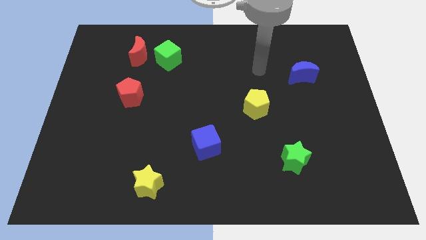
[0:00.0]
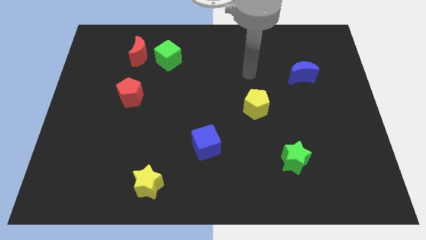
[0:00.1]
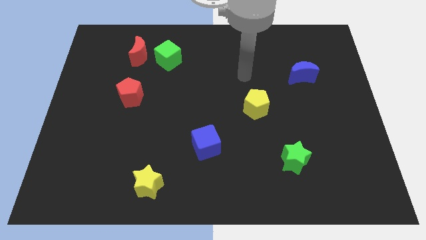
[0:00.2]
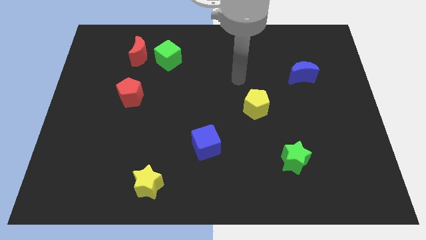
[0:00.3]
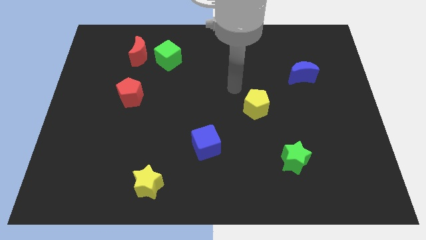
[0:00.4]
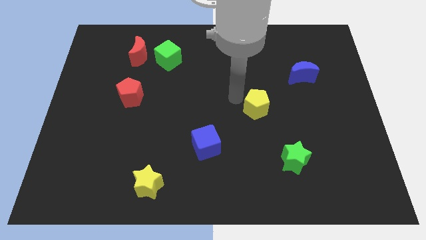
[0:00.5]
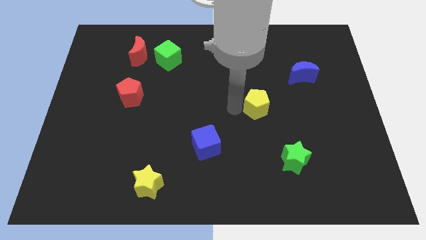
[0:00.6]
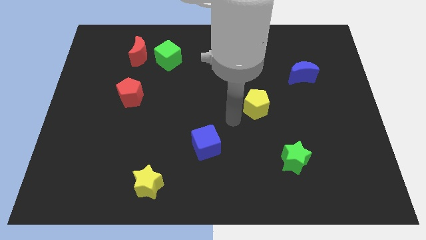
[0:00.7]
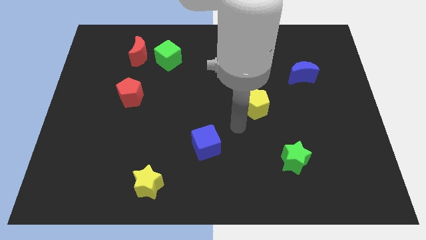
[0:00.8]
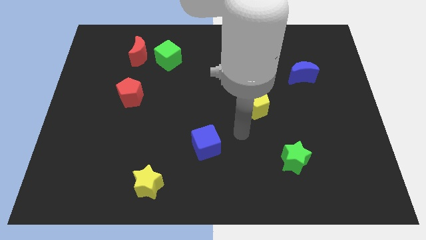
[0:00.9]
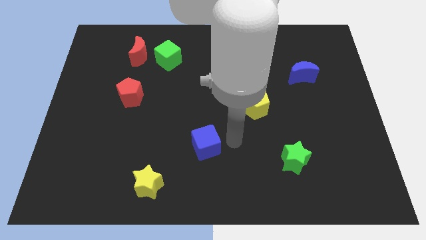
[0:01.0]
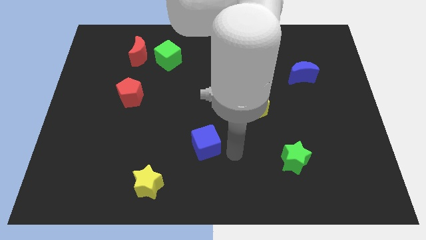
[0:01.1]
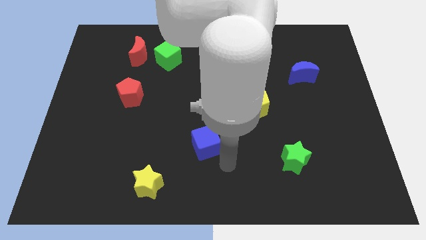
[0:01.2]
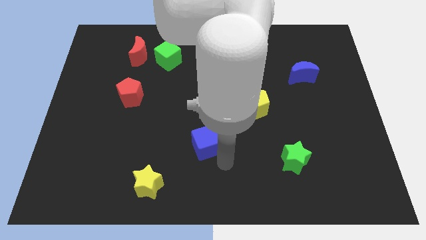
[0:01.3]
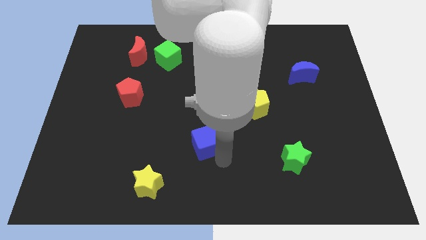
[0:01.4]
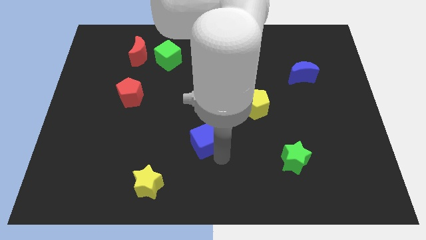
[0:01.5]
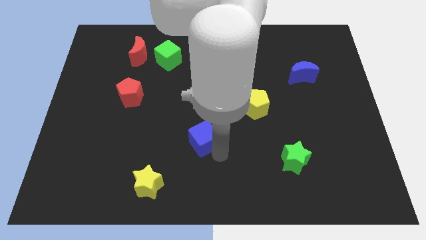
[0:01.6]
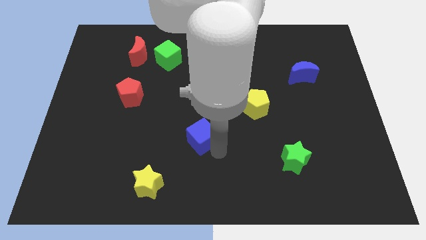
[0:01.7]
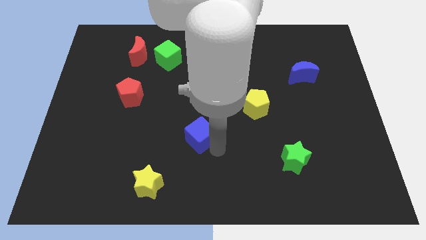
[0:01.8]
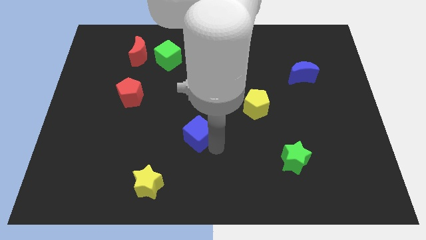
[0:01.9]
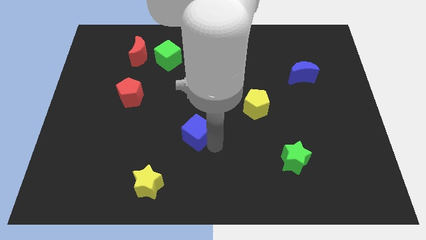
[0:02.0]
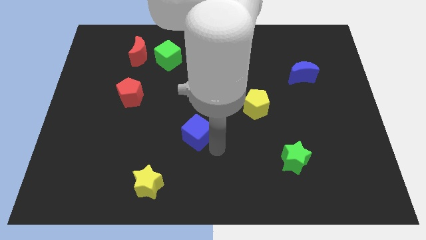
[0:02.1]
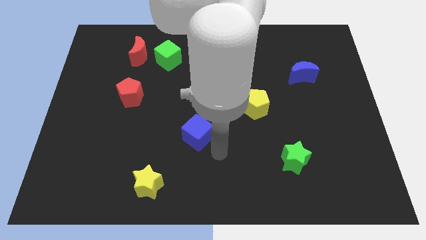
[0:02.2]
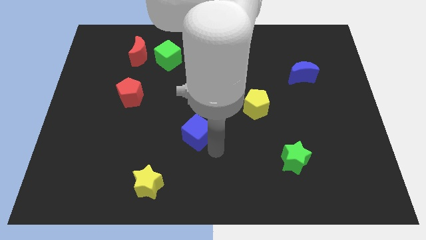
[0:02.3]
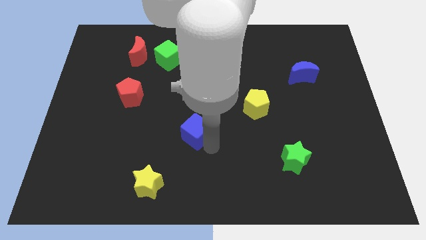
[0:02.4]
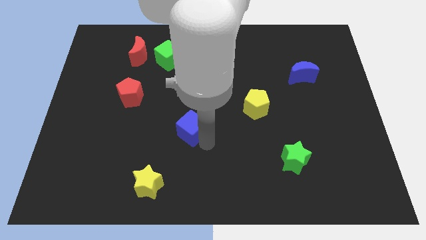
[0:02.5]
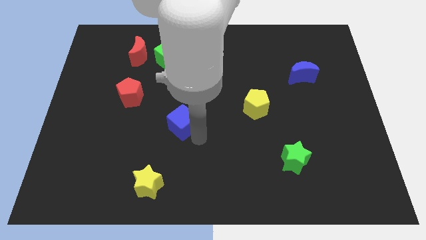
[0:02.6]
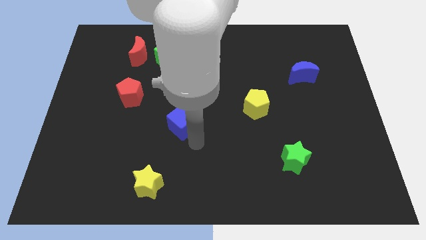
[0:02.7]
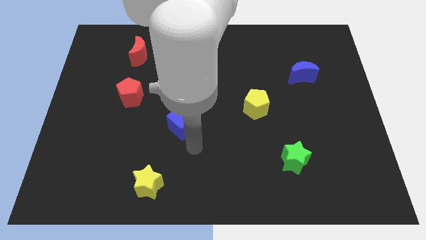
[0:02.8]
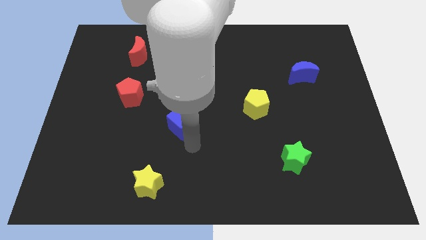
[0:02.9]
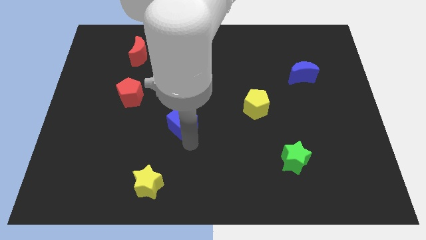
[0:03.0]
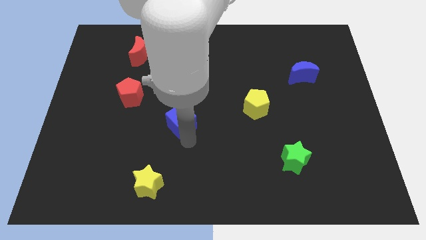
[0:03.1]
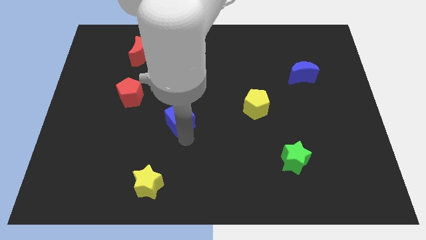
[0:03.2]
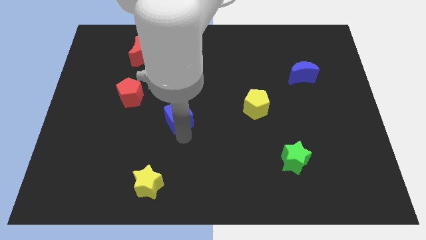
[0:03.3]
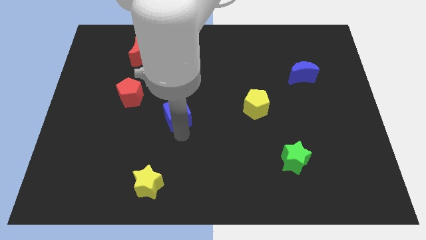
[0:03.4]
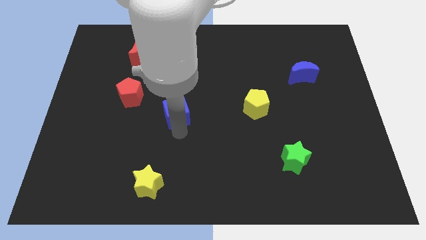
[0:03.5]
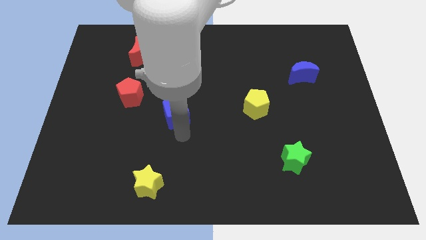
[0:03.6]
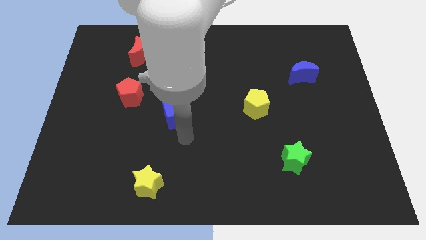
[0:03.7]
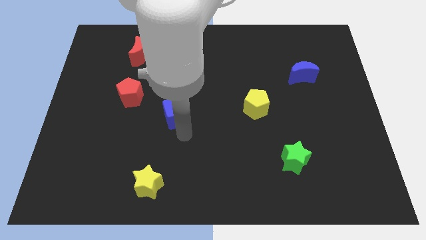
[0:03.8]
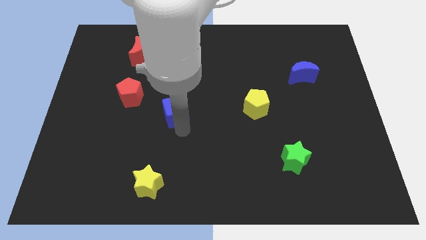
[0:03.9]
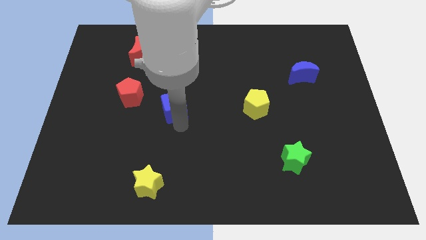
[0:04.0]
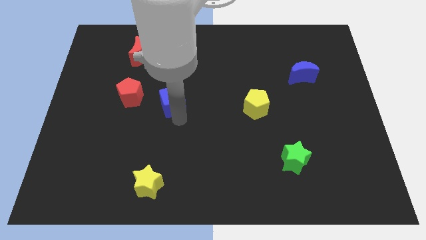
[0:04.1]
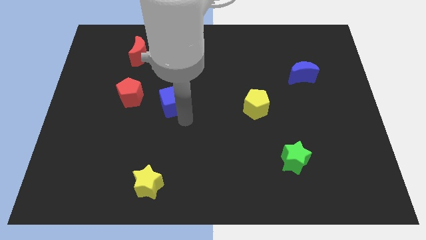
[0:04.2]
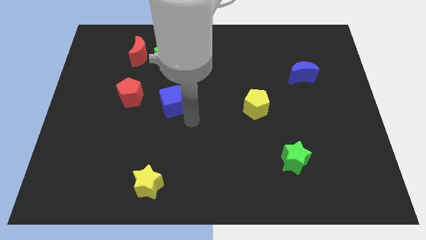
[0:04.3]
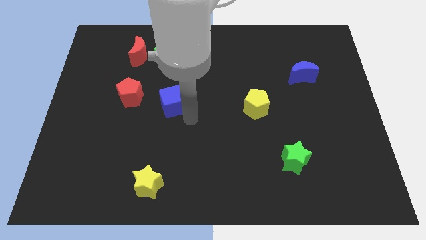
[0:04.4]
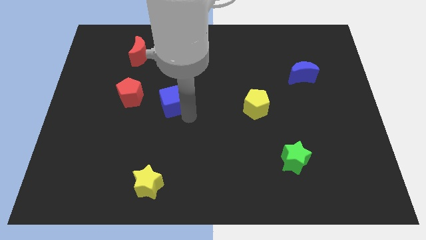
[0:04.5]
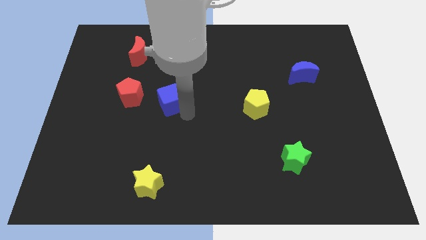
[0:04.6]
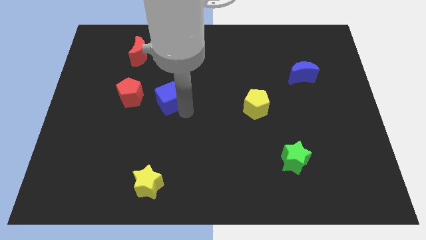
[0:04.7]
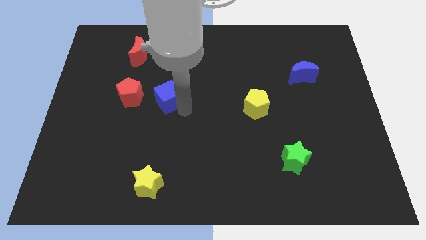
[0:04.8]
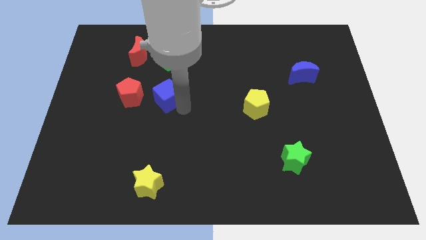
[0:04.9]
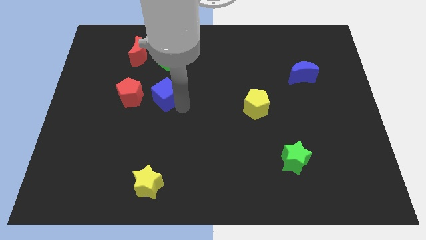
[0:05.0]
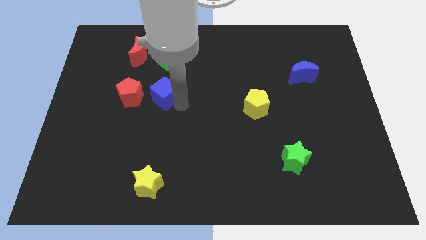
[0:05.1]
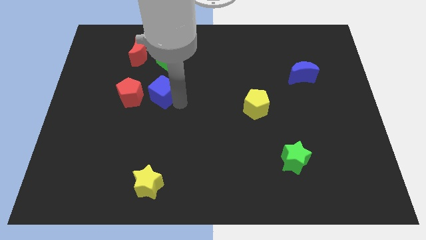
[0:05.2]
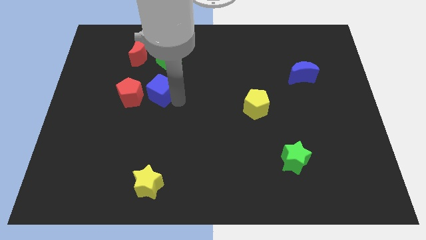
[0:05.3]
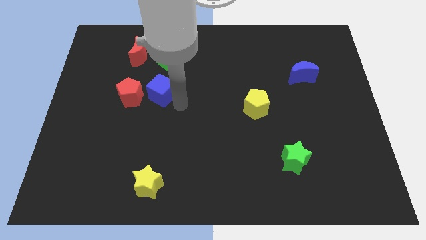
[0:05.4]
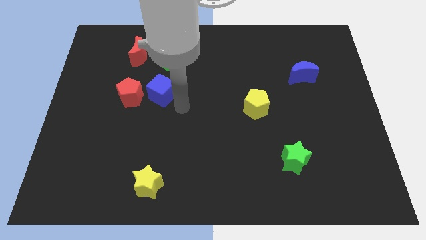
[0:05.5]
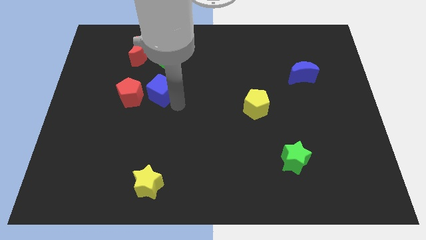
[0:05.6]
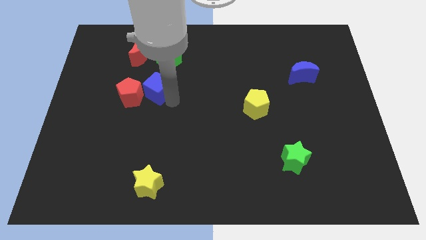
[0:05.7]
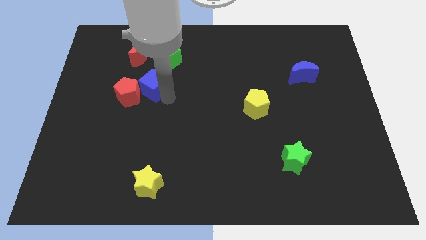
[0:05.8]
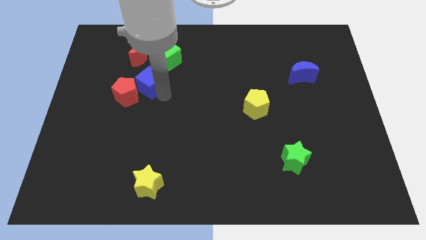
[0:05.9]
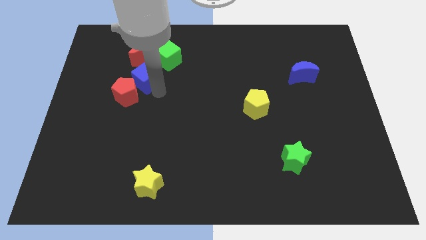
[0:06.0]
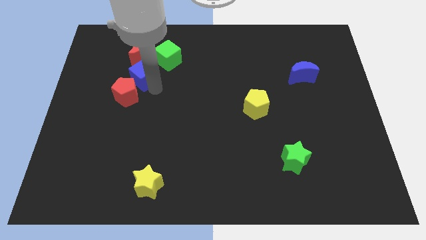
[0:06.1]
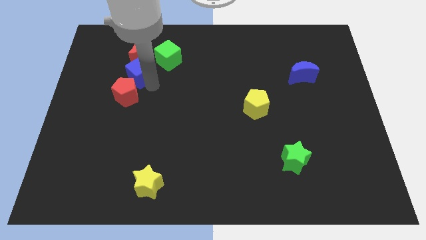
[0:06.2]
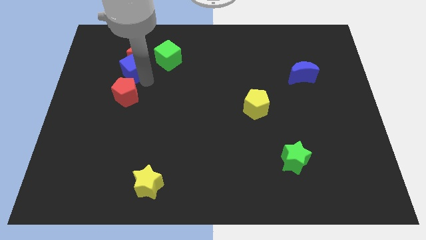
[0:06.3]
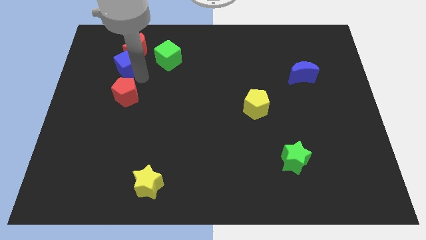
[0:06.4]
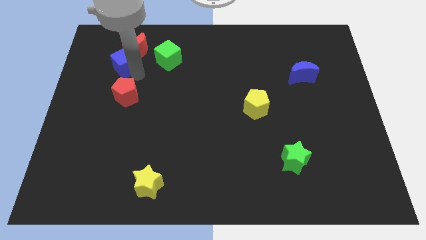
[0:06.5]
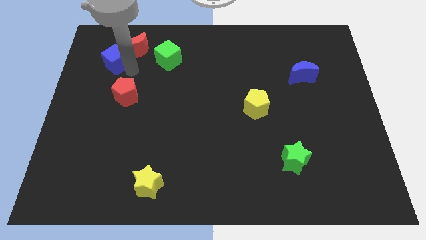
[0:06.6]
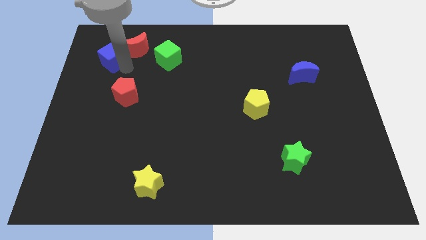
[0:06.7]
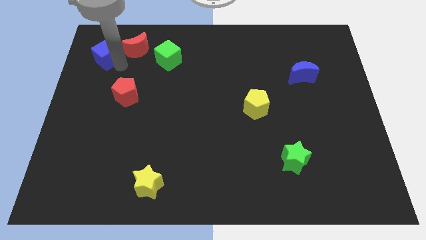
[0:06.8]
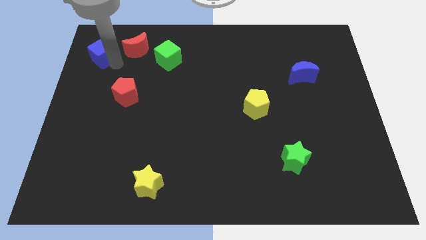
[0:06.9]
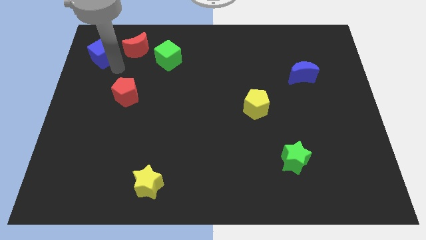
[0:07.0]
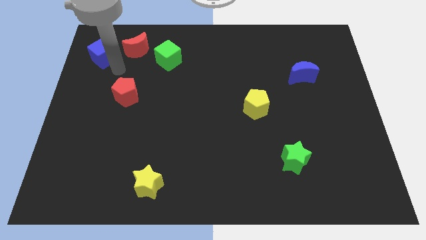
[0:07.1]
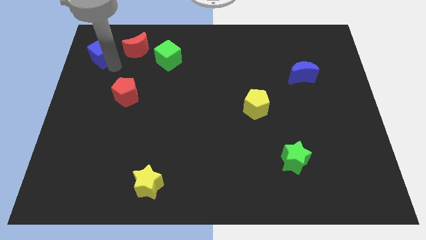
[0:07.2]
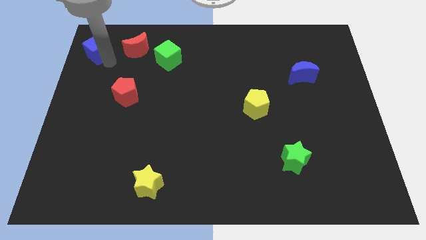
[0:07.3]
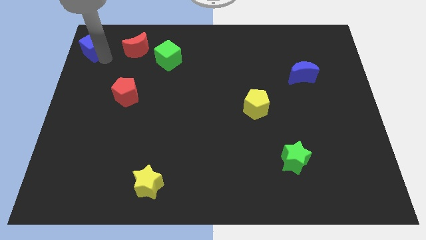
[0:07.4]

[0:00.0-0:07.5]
move the blue cube to the upper left corner
